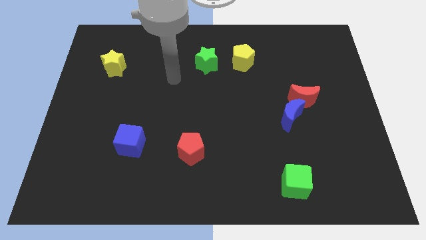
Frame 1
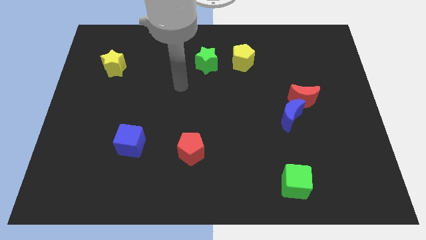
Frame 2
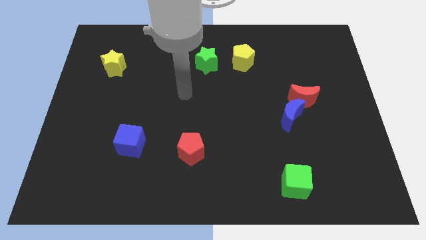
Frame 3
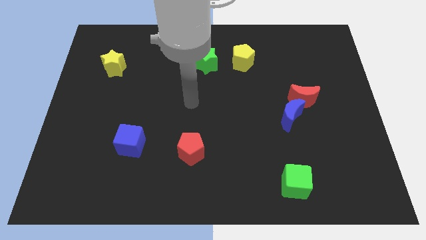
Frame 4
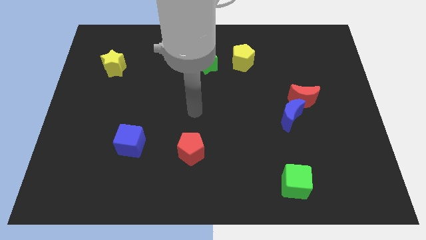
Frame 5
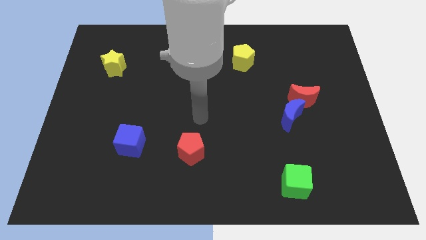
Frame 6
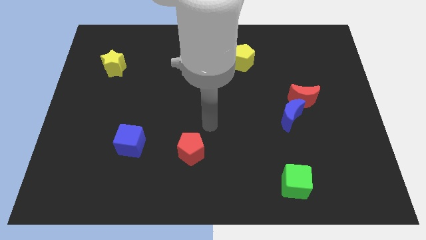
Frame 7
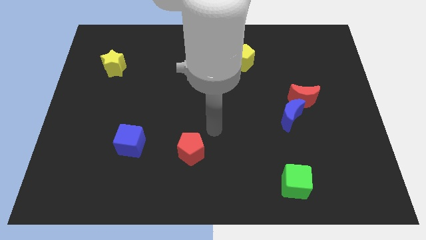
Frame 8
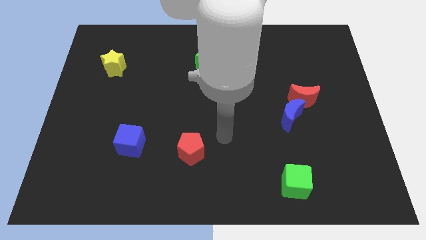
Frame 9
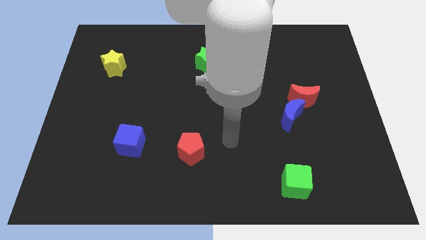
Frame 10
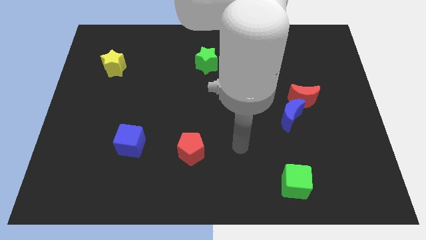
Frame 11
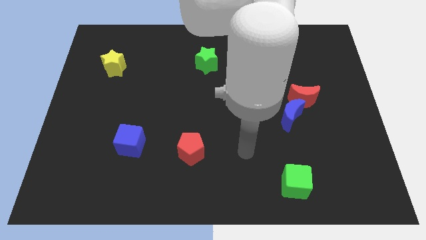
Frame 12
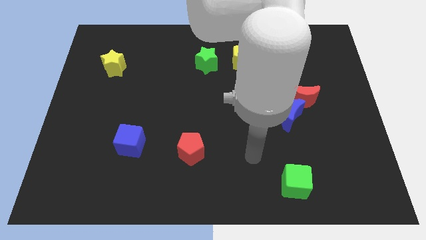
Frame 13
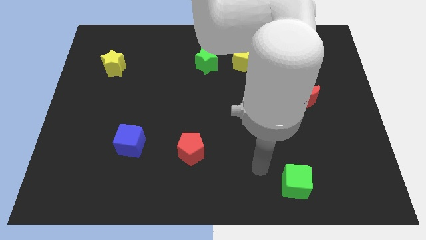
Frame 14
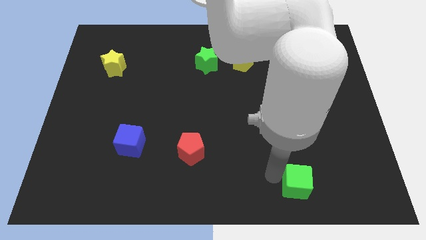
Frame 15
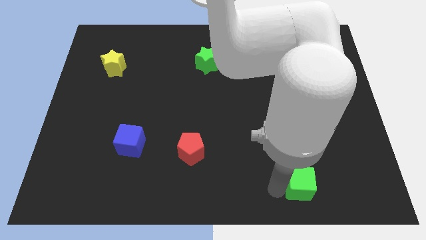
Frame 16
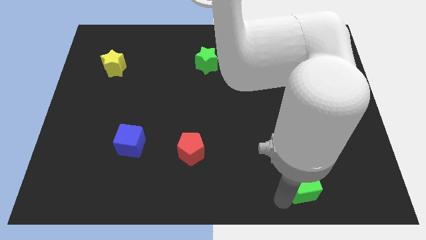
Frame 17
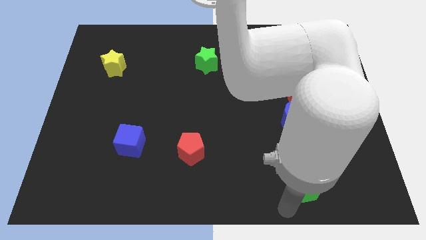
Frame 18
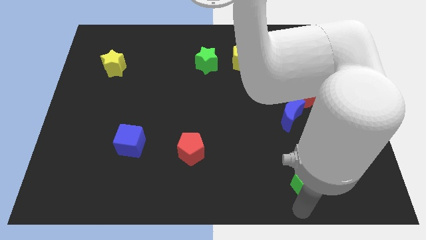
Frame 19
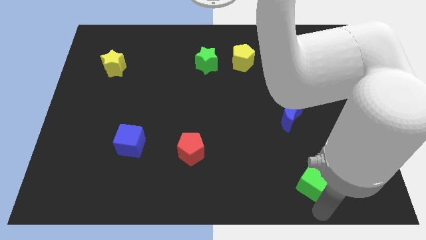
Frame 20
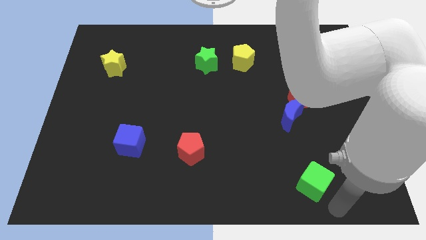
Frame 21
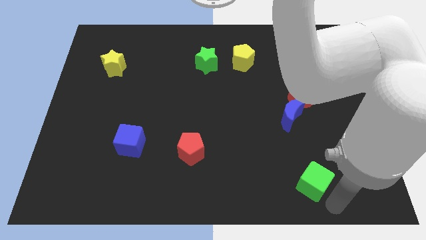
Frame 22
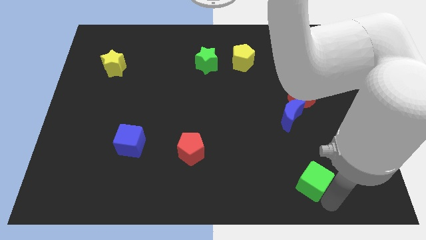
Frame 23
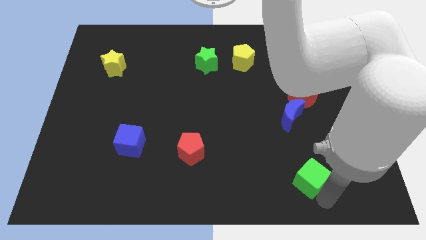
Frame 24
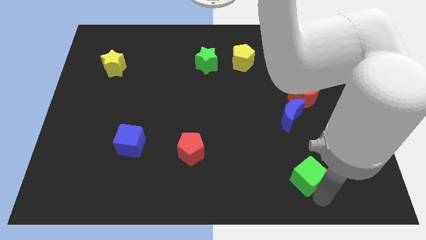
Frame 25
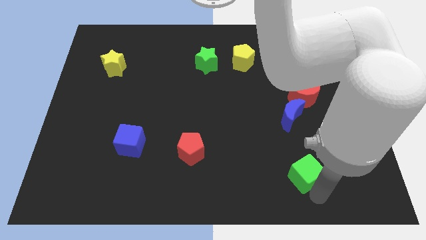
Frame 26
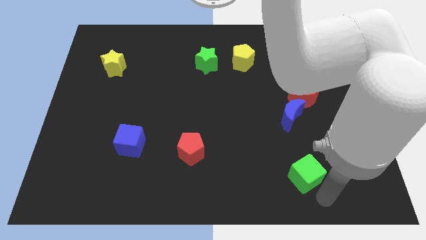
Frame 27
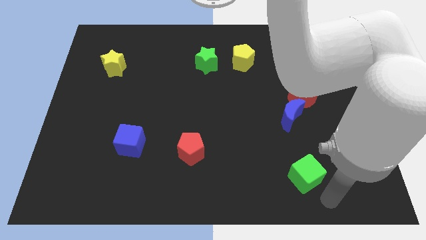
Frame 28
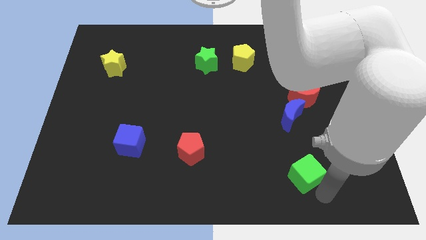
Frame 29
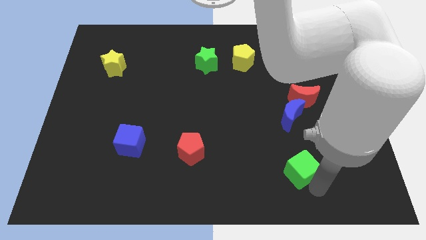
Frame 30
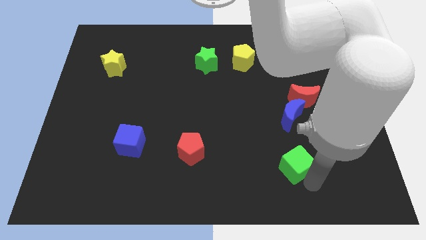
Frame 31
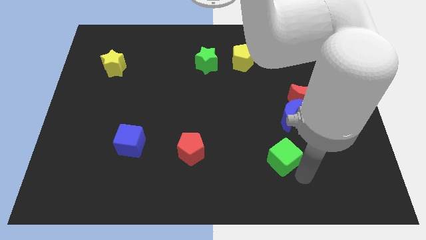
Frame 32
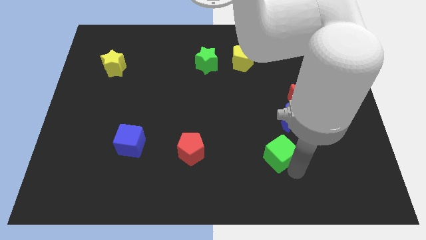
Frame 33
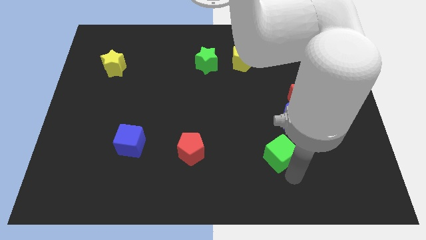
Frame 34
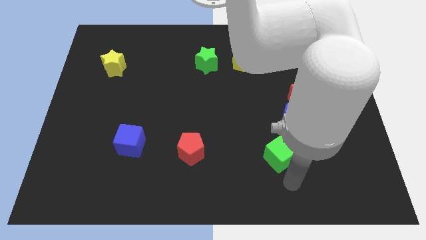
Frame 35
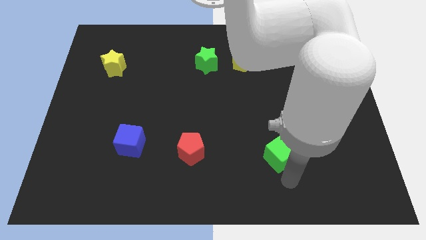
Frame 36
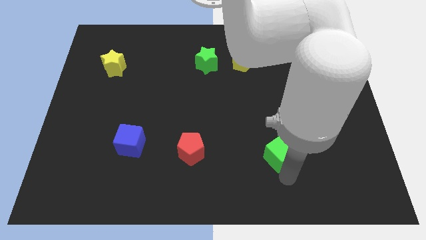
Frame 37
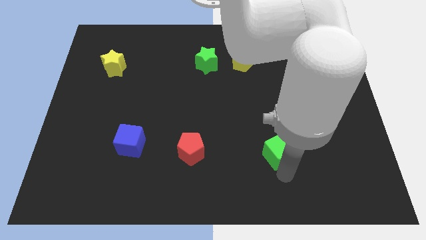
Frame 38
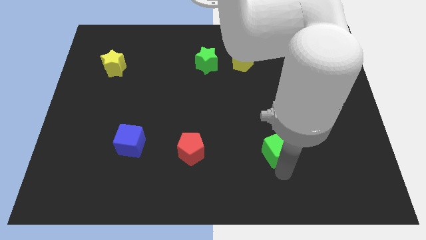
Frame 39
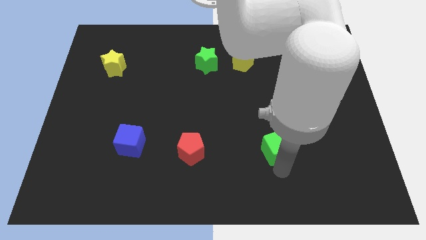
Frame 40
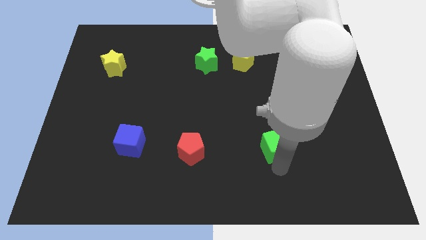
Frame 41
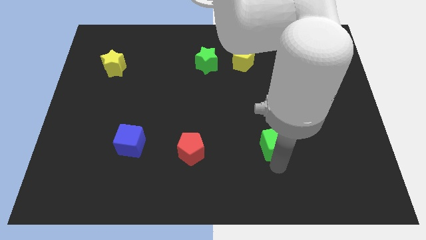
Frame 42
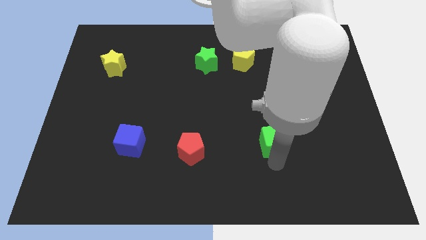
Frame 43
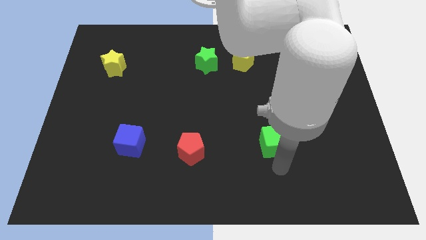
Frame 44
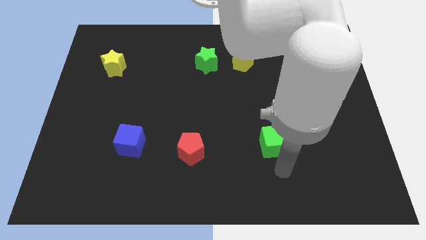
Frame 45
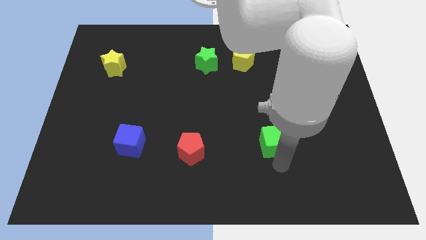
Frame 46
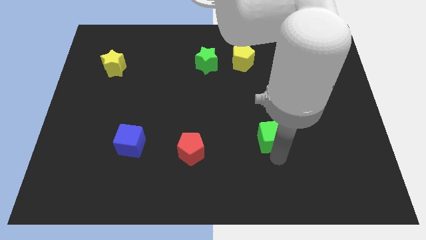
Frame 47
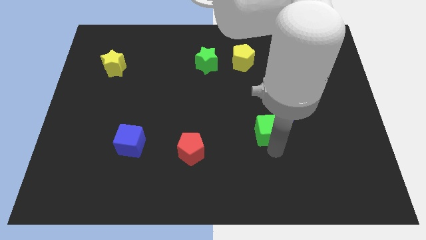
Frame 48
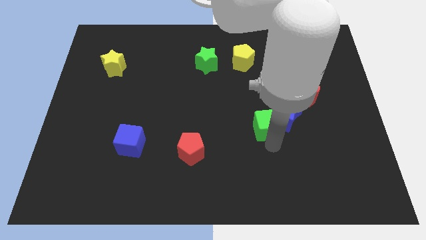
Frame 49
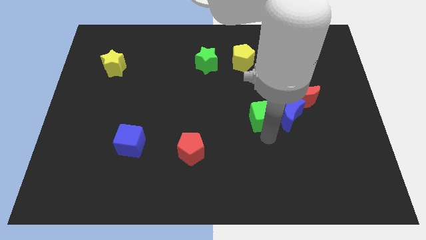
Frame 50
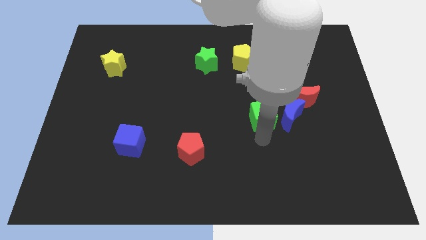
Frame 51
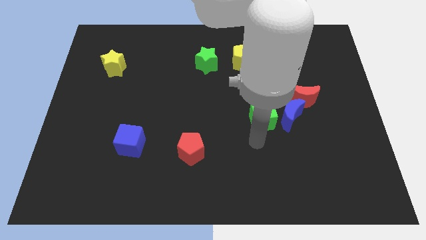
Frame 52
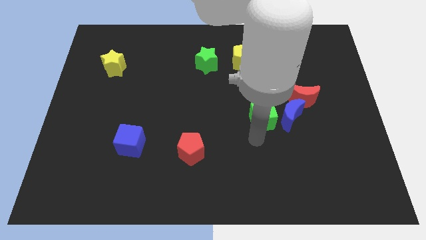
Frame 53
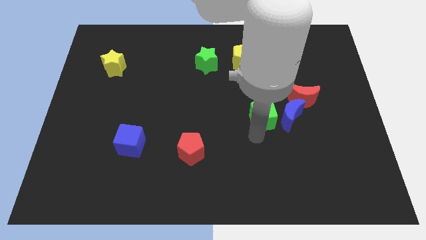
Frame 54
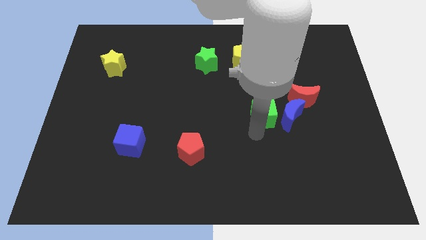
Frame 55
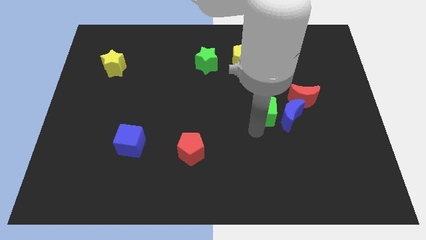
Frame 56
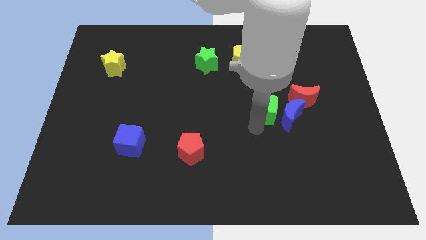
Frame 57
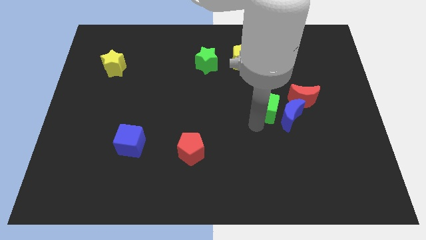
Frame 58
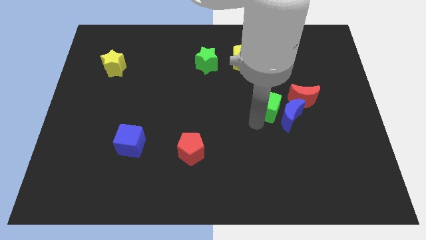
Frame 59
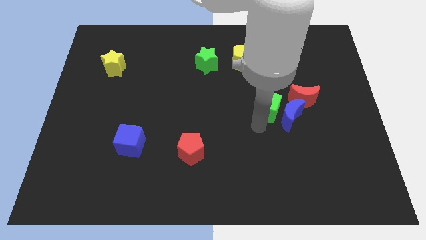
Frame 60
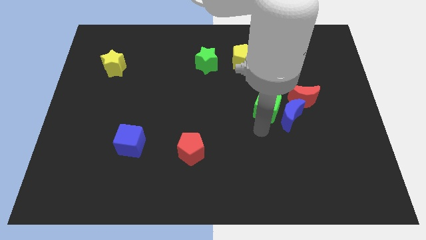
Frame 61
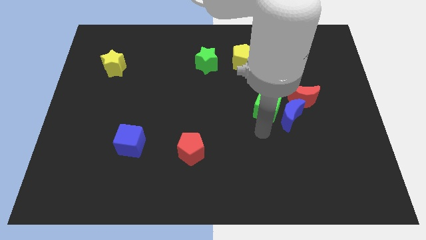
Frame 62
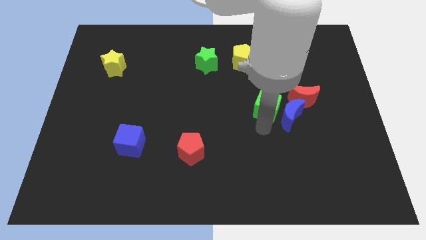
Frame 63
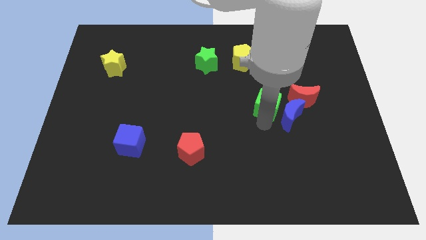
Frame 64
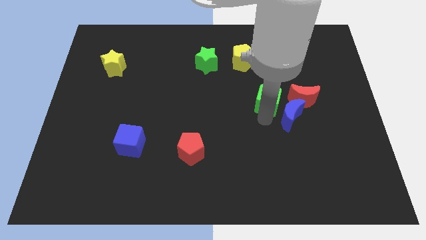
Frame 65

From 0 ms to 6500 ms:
push the green cube up

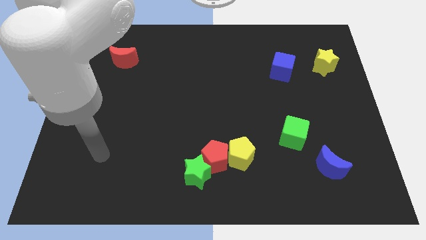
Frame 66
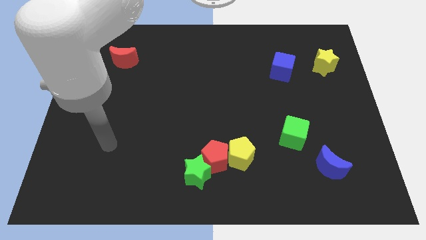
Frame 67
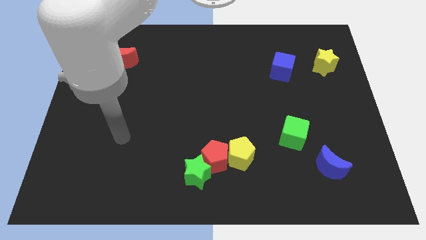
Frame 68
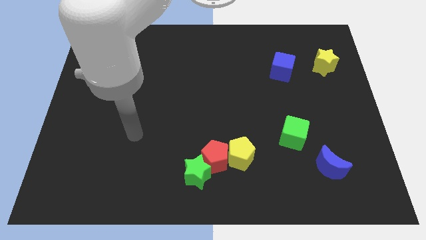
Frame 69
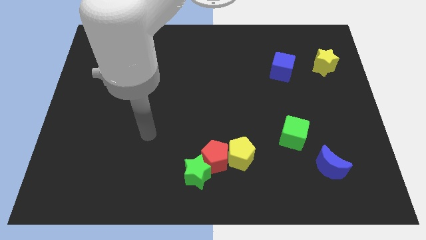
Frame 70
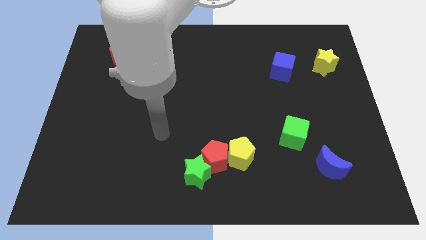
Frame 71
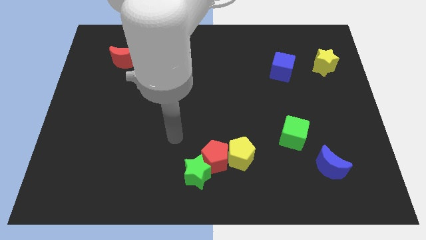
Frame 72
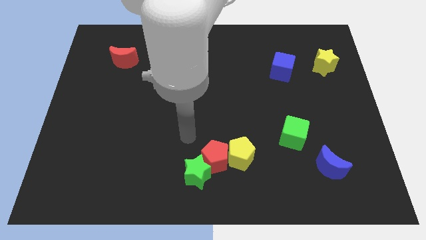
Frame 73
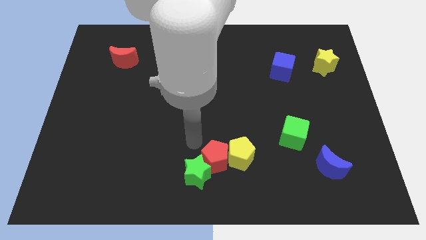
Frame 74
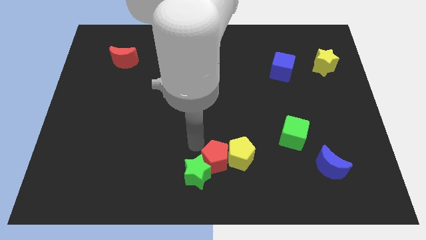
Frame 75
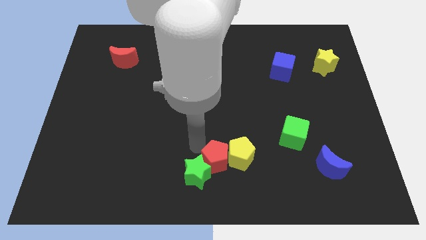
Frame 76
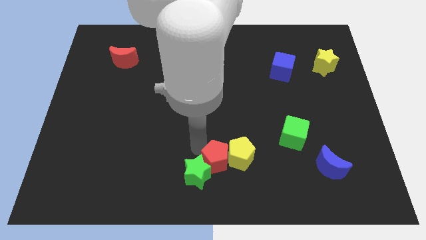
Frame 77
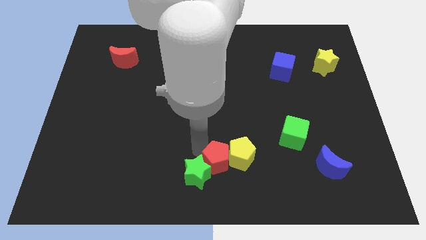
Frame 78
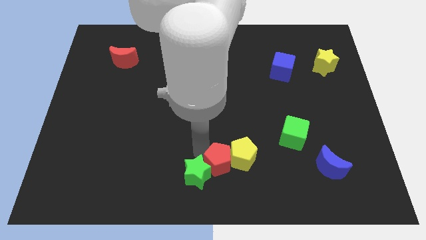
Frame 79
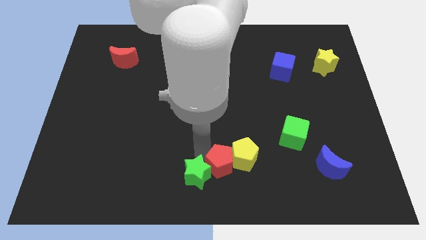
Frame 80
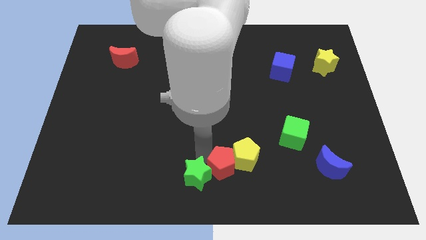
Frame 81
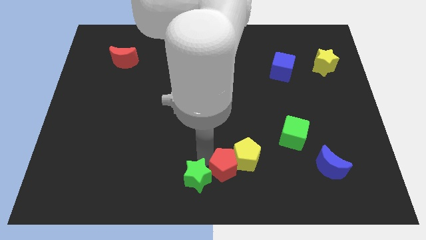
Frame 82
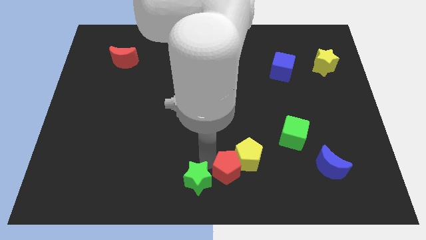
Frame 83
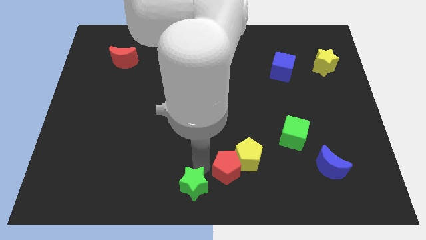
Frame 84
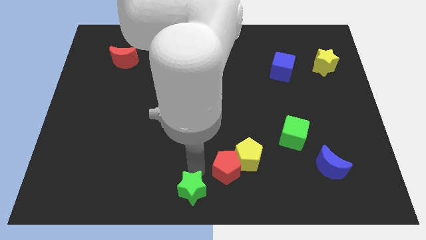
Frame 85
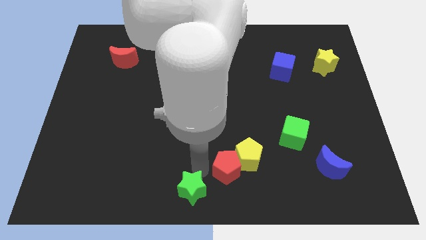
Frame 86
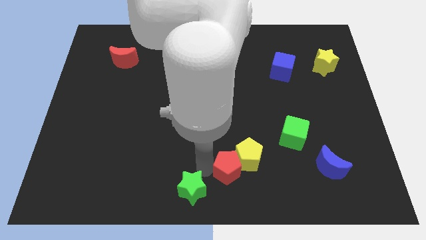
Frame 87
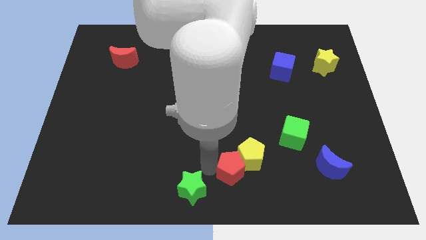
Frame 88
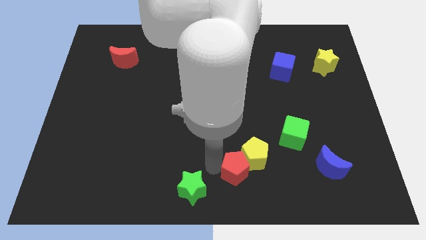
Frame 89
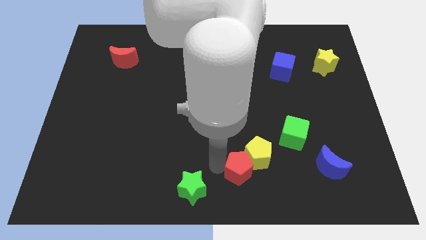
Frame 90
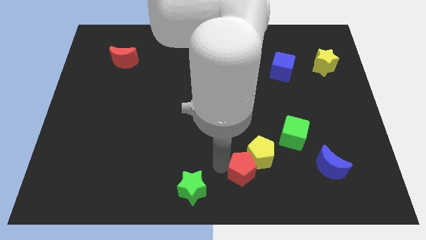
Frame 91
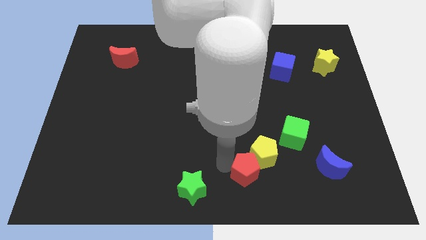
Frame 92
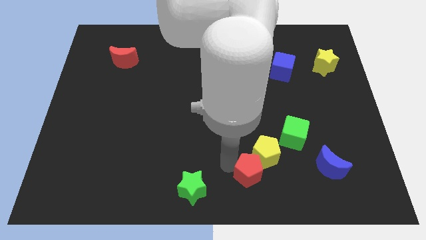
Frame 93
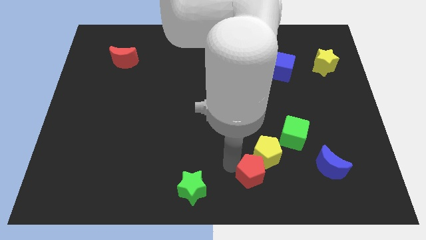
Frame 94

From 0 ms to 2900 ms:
slightly push the red pentagon to the right
